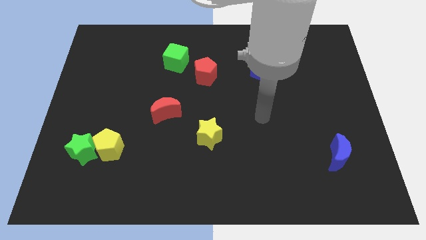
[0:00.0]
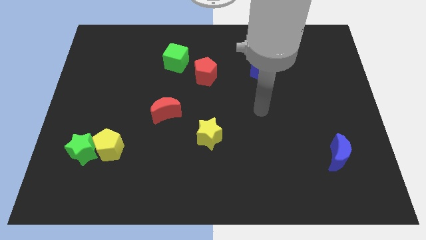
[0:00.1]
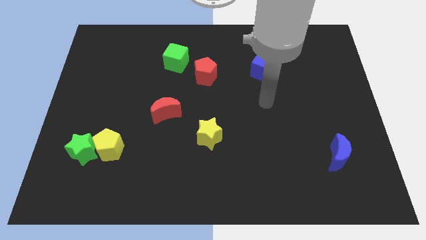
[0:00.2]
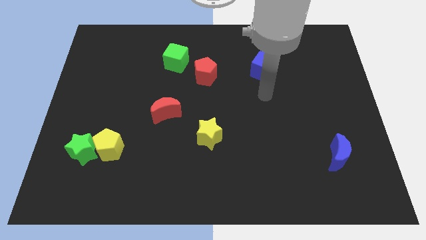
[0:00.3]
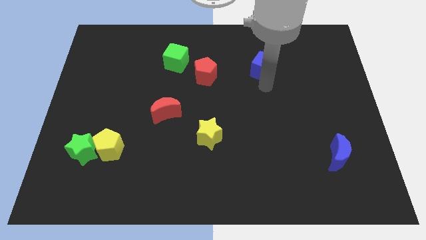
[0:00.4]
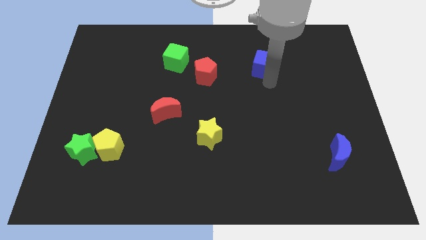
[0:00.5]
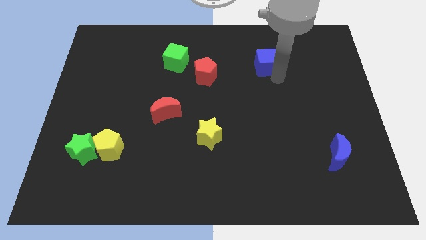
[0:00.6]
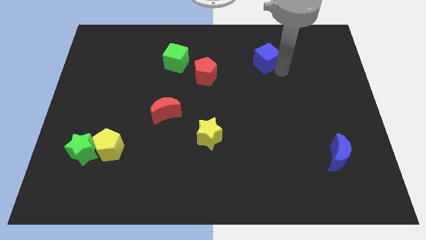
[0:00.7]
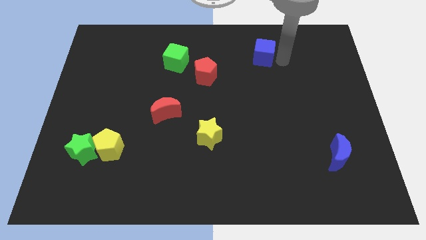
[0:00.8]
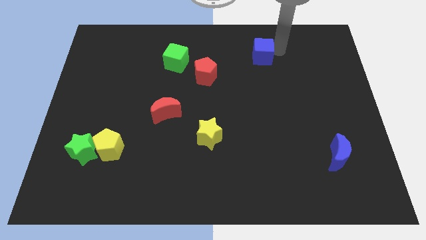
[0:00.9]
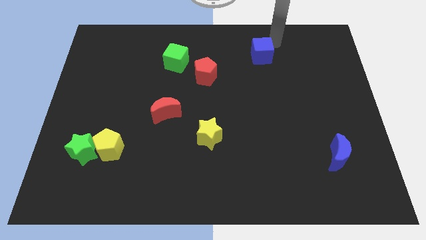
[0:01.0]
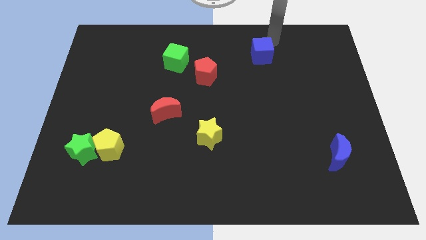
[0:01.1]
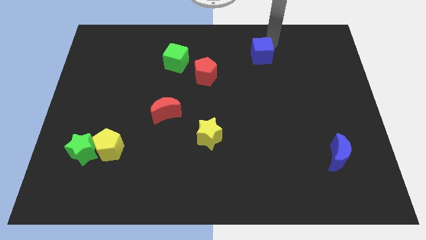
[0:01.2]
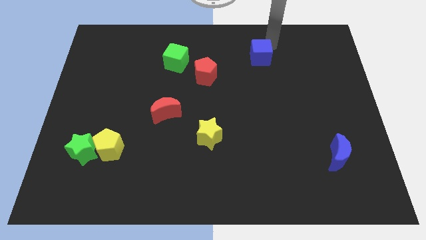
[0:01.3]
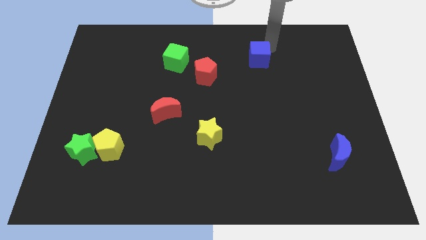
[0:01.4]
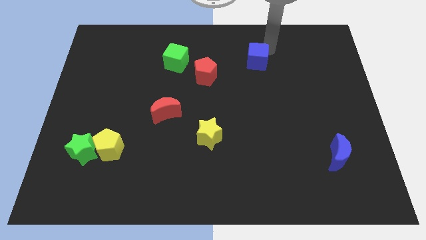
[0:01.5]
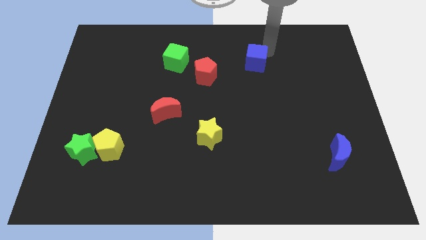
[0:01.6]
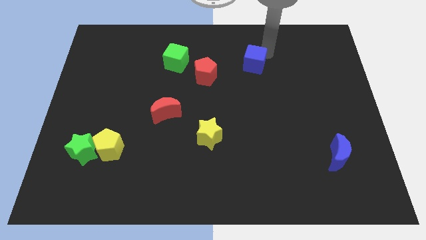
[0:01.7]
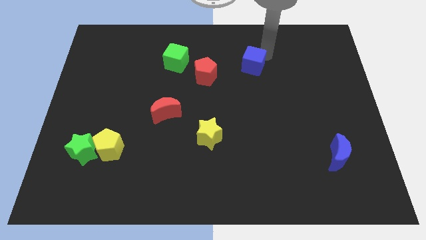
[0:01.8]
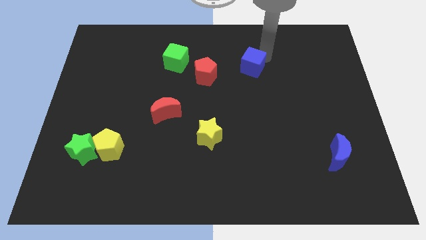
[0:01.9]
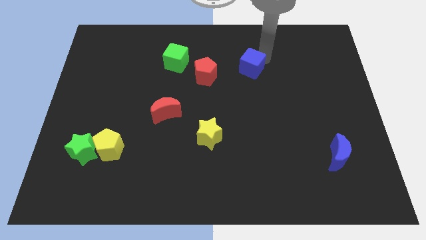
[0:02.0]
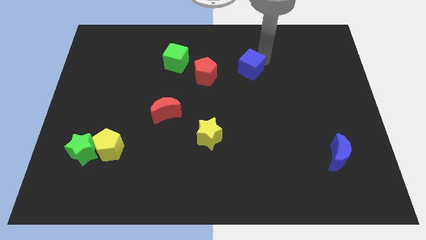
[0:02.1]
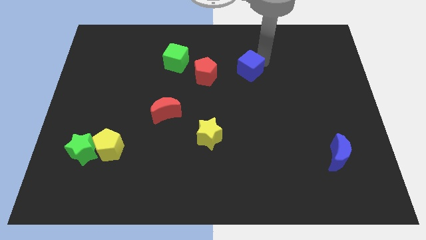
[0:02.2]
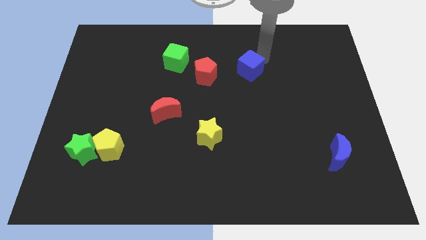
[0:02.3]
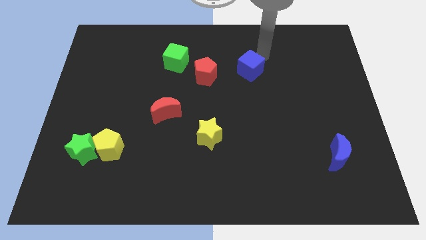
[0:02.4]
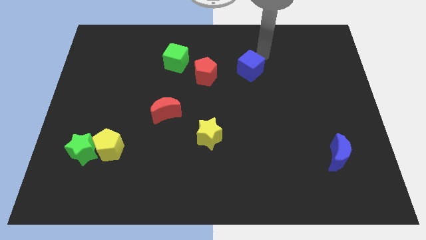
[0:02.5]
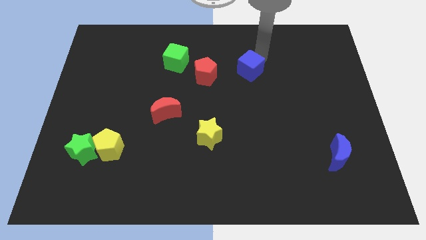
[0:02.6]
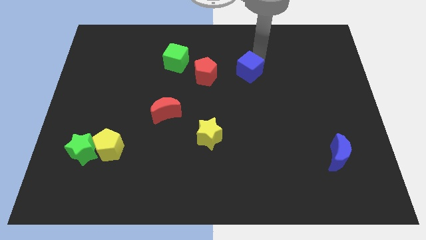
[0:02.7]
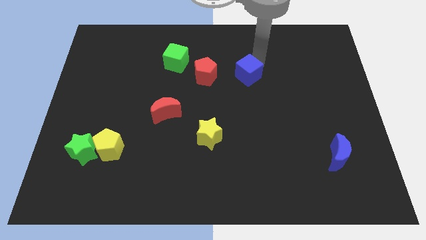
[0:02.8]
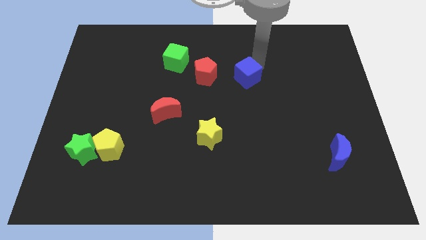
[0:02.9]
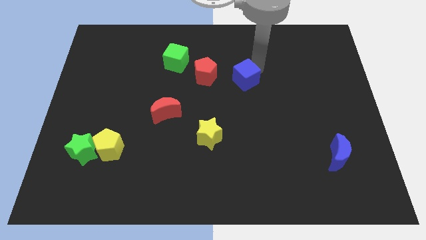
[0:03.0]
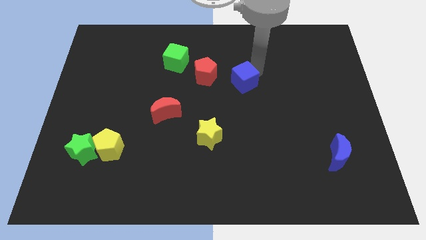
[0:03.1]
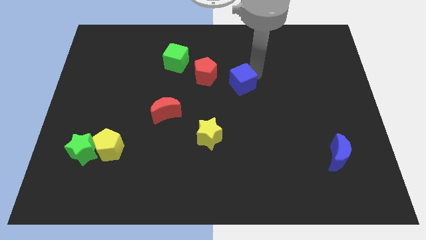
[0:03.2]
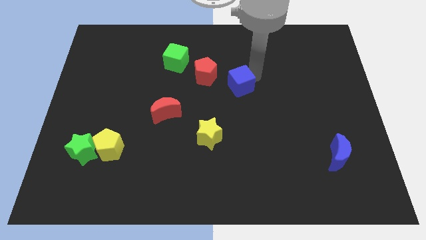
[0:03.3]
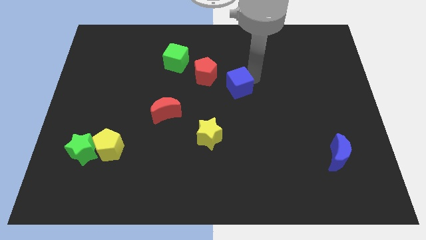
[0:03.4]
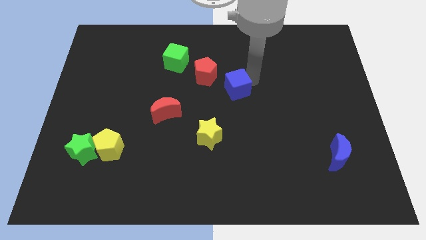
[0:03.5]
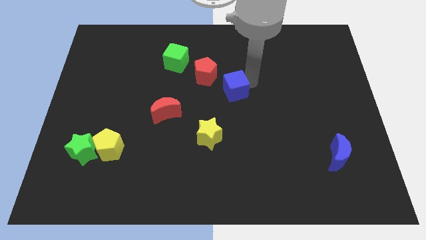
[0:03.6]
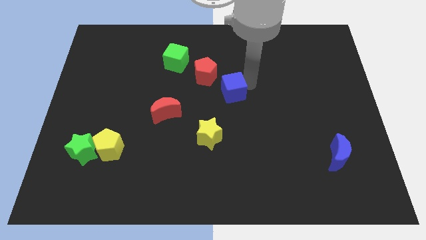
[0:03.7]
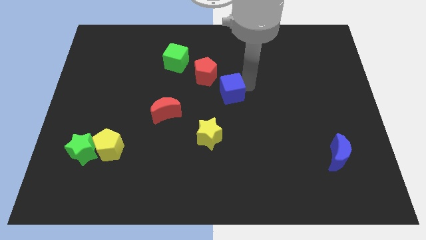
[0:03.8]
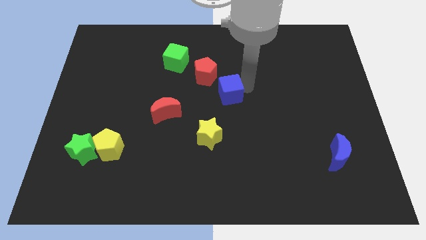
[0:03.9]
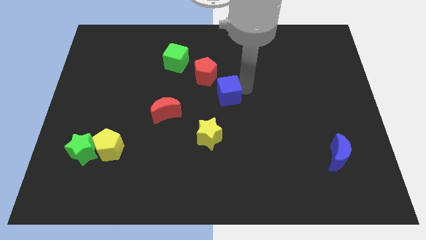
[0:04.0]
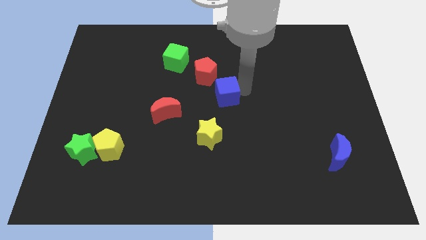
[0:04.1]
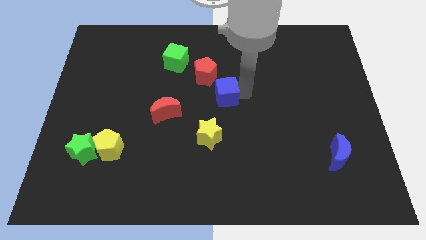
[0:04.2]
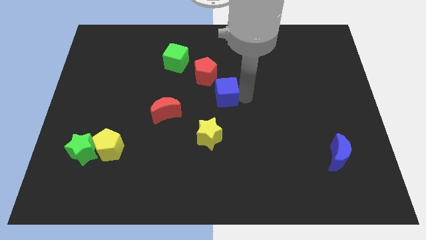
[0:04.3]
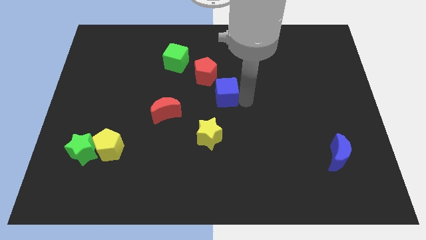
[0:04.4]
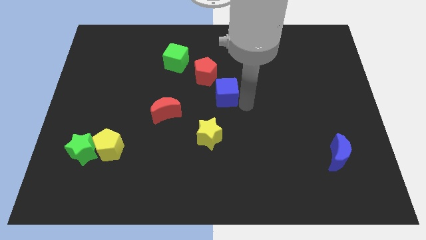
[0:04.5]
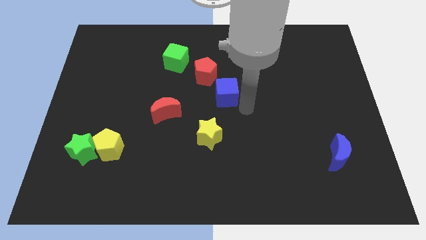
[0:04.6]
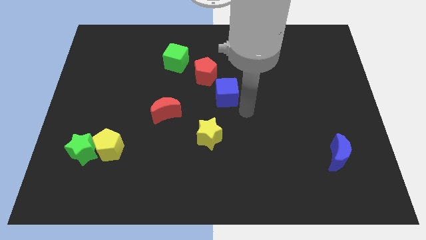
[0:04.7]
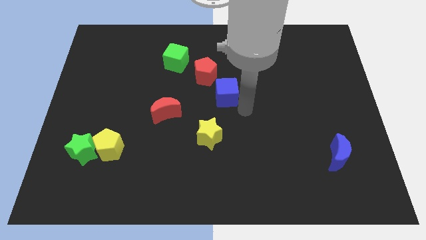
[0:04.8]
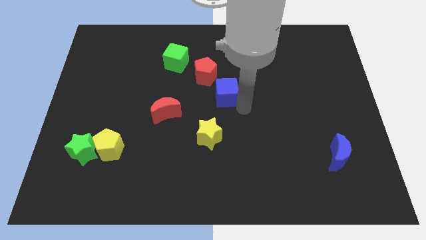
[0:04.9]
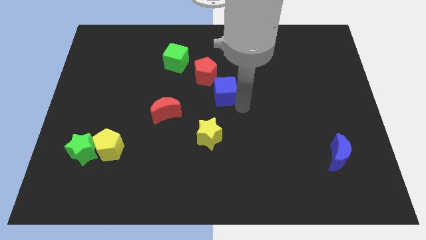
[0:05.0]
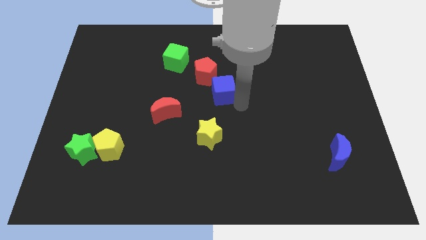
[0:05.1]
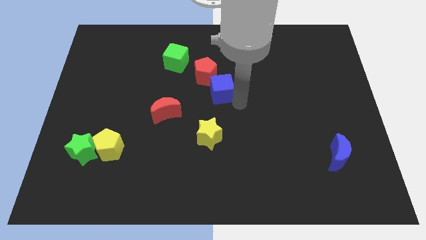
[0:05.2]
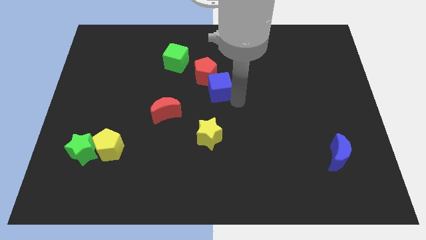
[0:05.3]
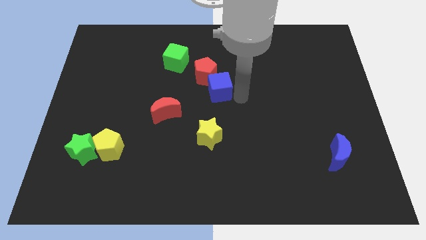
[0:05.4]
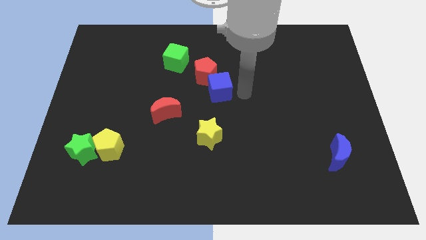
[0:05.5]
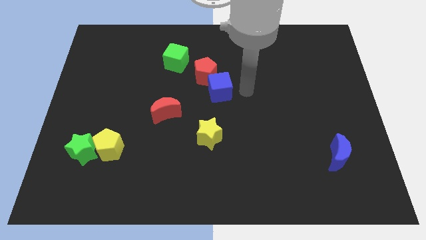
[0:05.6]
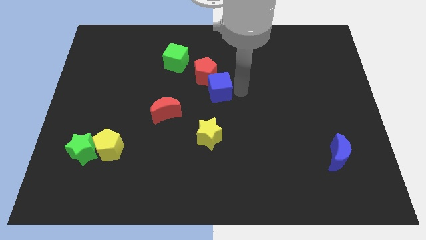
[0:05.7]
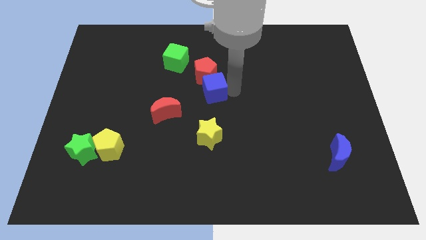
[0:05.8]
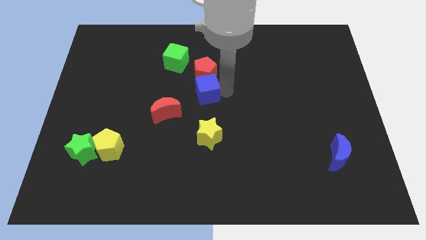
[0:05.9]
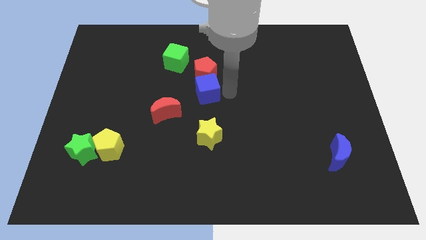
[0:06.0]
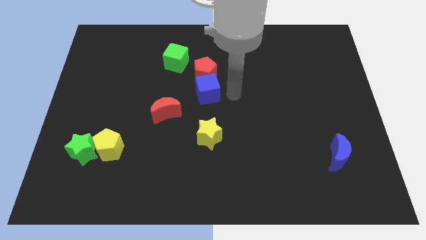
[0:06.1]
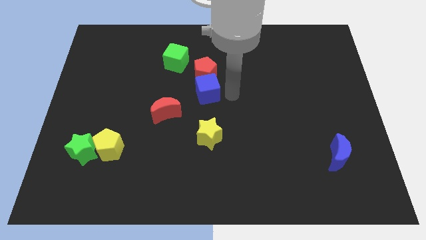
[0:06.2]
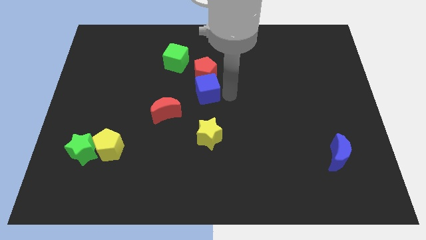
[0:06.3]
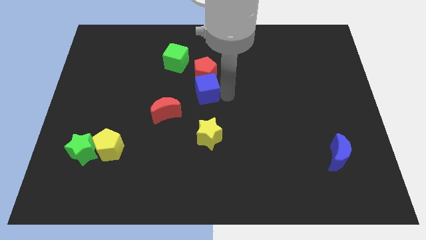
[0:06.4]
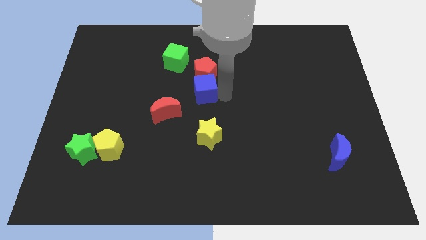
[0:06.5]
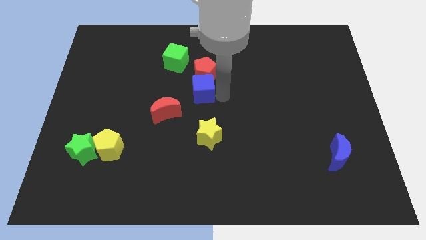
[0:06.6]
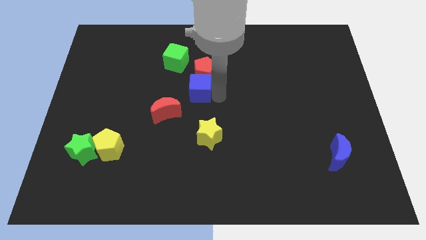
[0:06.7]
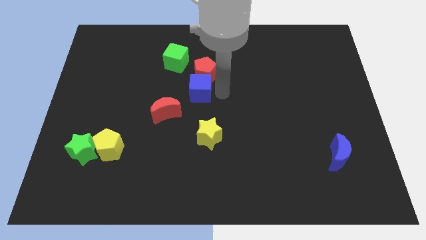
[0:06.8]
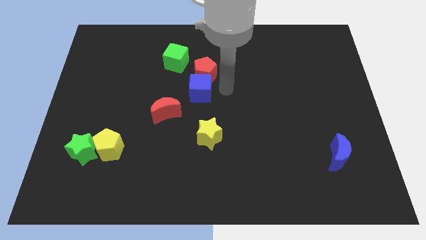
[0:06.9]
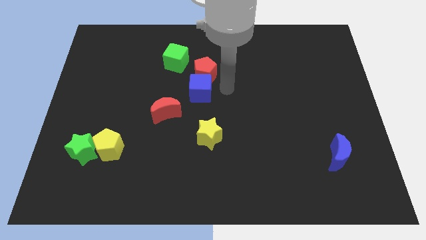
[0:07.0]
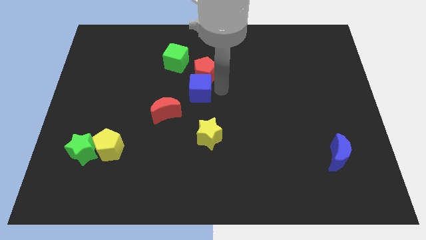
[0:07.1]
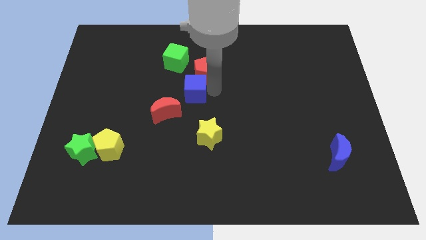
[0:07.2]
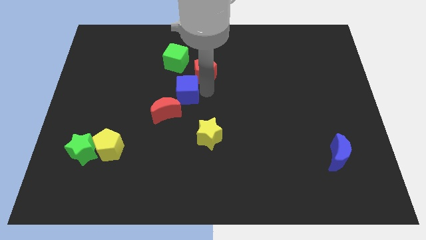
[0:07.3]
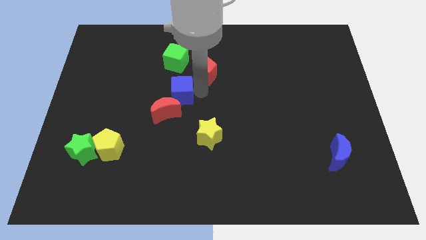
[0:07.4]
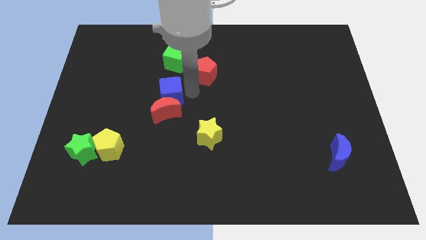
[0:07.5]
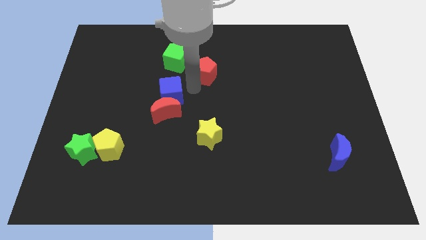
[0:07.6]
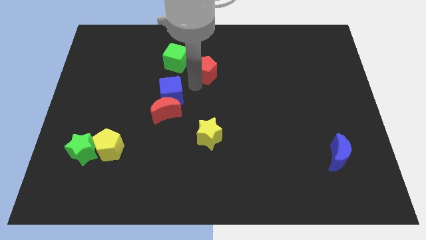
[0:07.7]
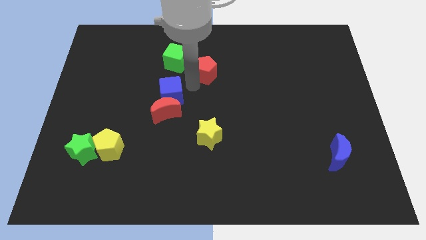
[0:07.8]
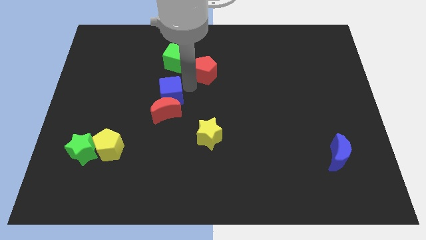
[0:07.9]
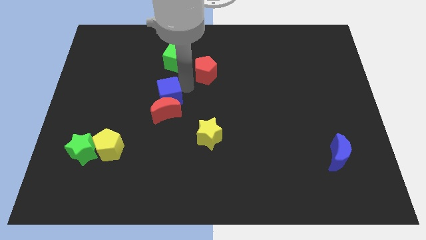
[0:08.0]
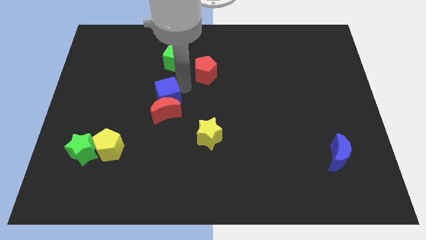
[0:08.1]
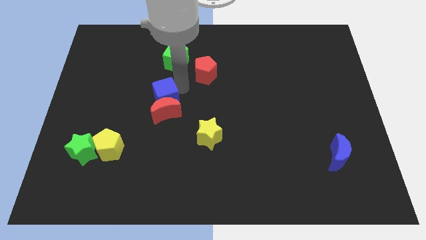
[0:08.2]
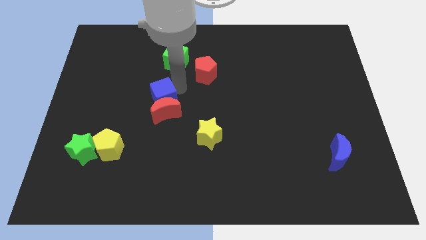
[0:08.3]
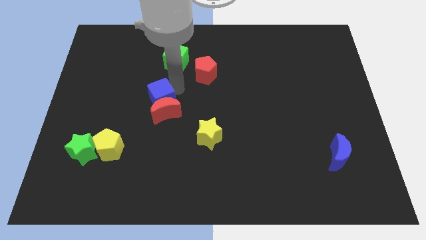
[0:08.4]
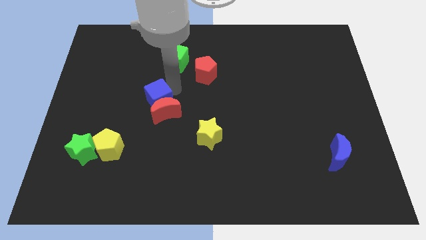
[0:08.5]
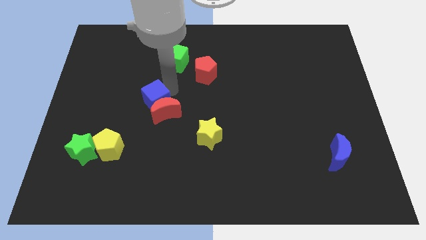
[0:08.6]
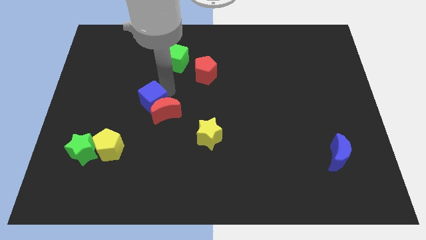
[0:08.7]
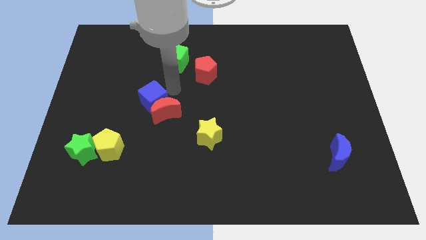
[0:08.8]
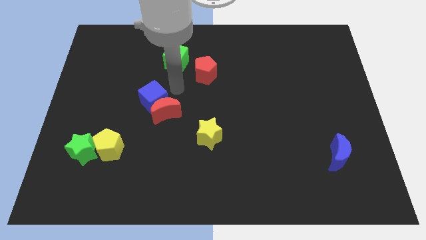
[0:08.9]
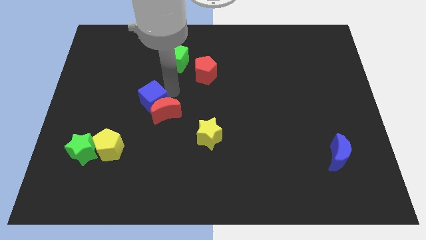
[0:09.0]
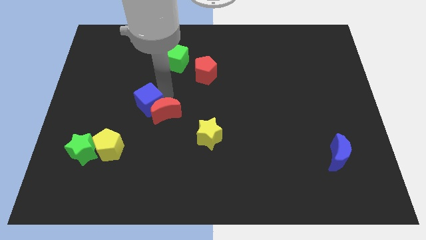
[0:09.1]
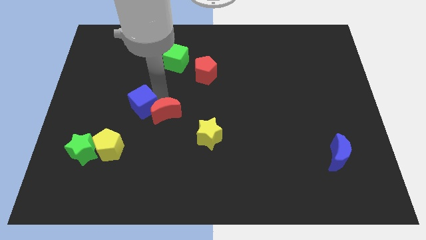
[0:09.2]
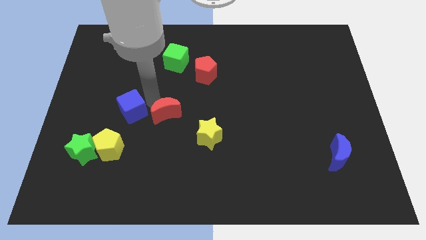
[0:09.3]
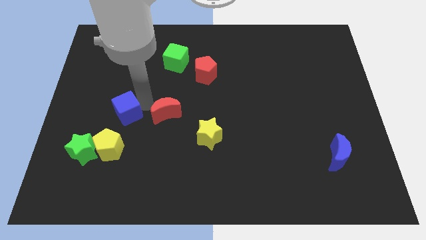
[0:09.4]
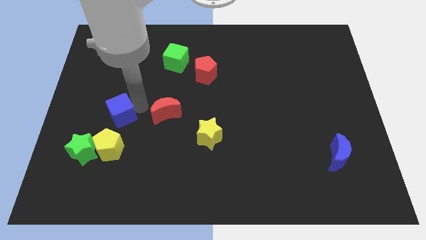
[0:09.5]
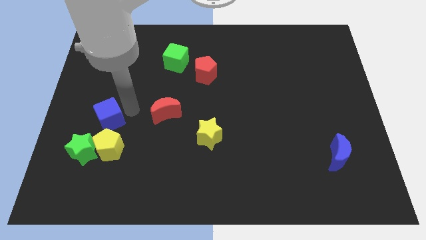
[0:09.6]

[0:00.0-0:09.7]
push the blue cube to the top left side of the yellow pentagon
